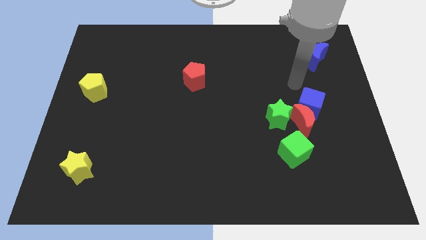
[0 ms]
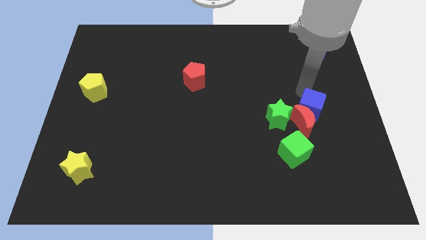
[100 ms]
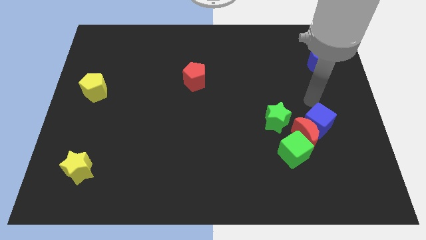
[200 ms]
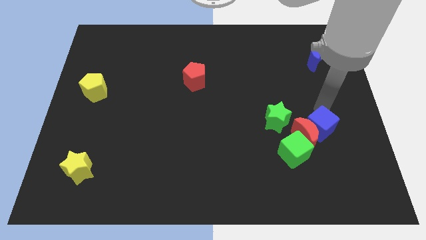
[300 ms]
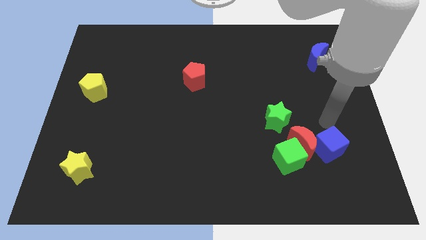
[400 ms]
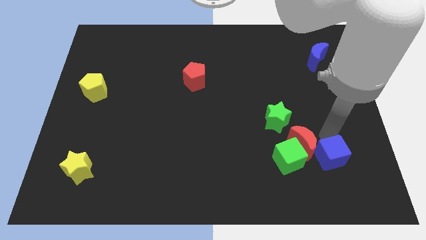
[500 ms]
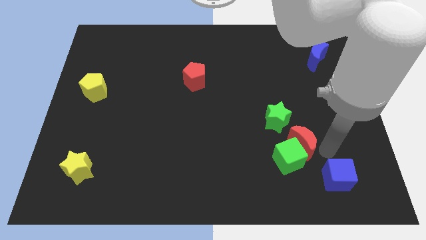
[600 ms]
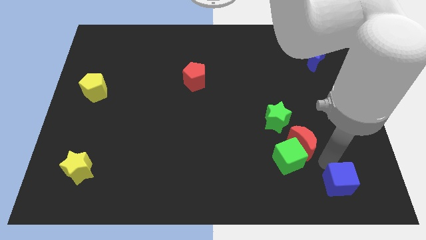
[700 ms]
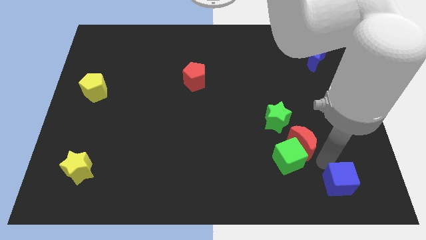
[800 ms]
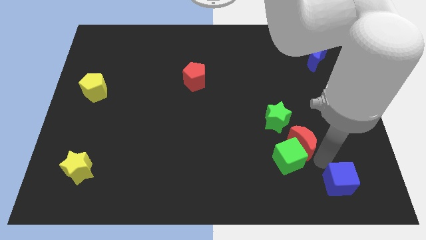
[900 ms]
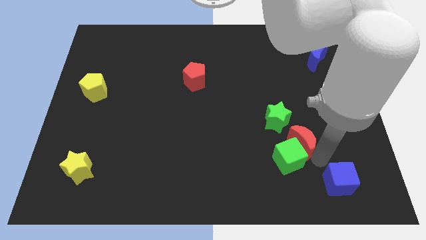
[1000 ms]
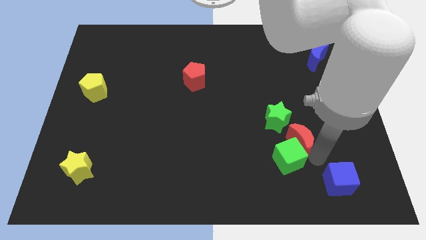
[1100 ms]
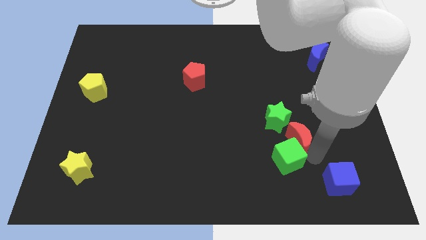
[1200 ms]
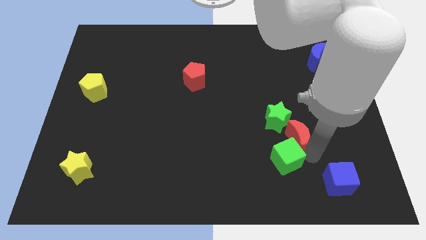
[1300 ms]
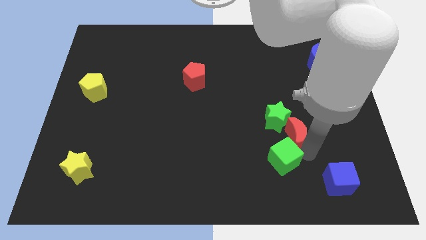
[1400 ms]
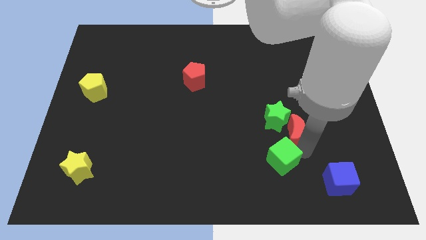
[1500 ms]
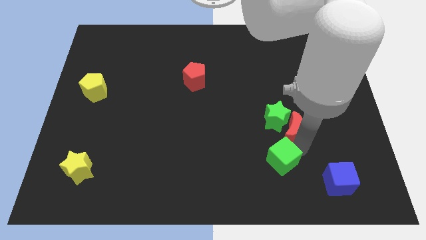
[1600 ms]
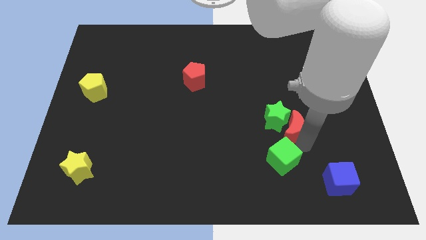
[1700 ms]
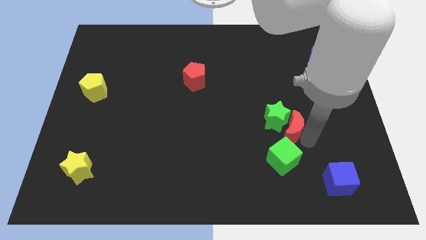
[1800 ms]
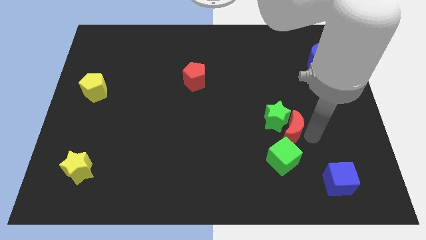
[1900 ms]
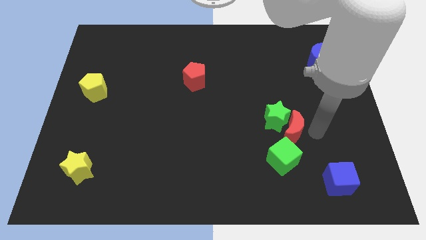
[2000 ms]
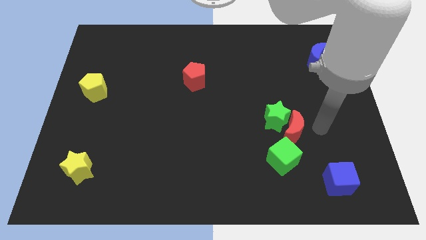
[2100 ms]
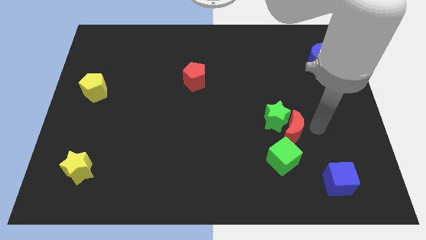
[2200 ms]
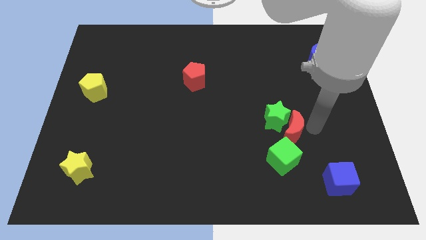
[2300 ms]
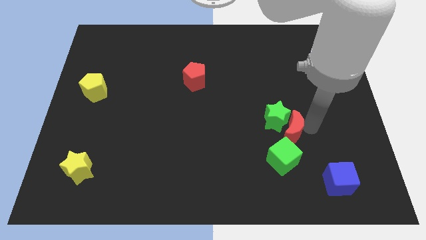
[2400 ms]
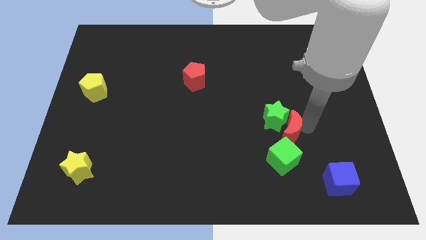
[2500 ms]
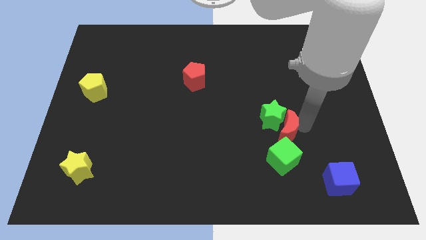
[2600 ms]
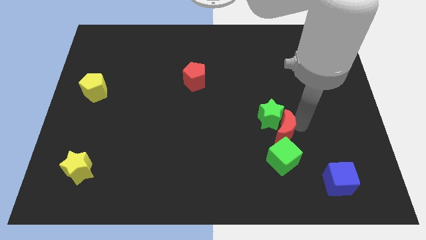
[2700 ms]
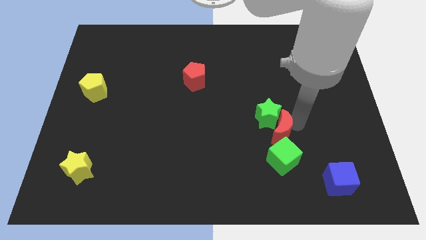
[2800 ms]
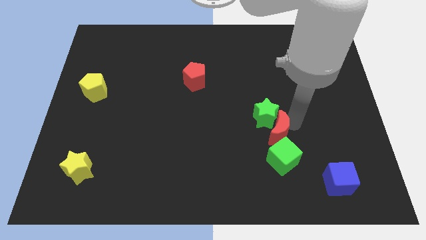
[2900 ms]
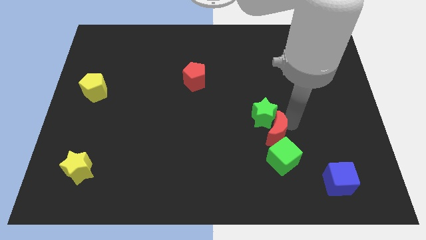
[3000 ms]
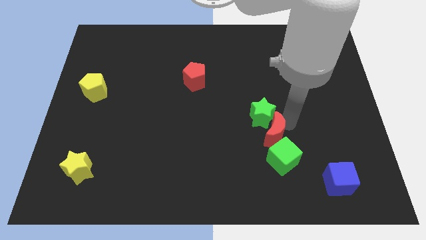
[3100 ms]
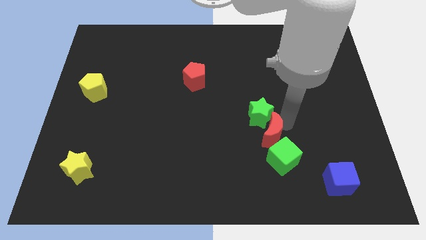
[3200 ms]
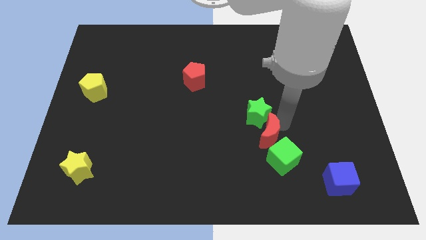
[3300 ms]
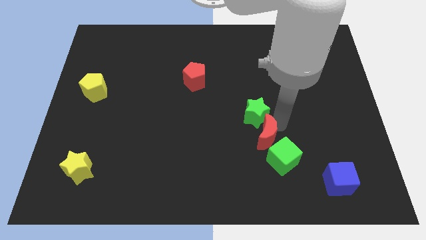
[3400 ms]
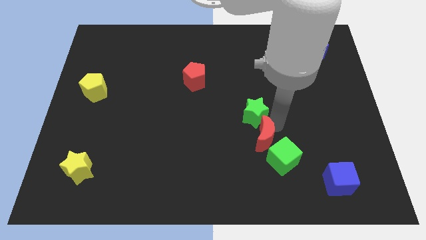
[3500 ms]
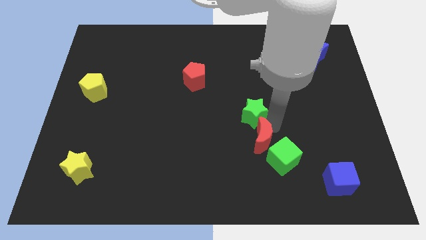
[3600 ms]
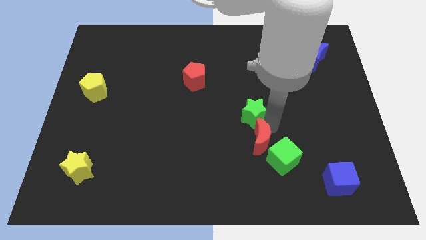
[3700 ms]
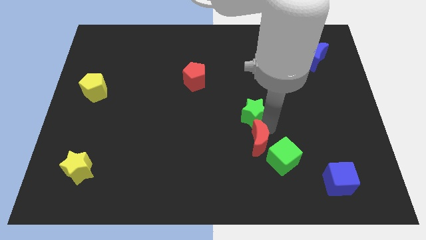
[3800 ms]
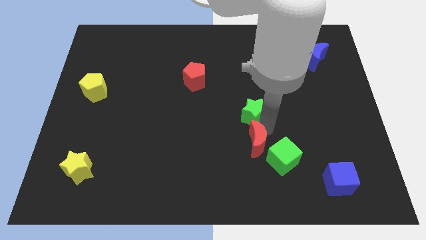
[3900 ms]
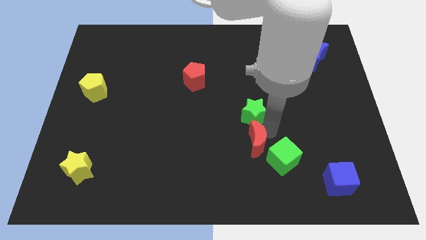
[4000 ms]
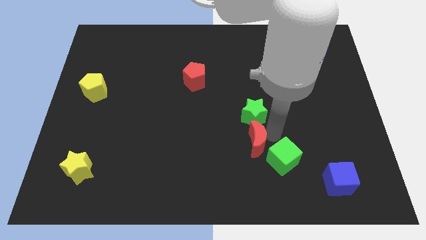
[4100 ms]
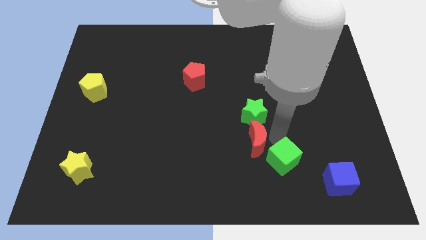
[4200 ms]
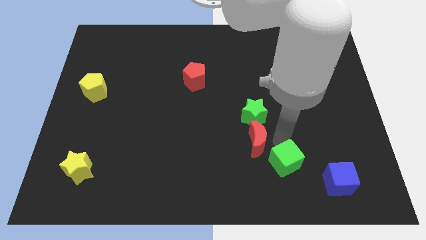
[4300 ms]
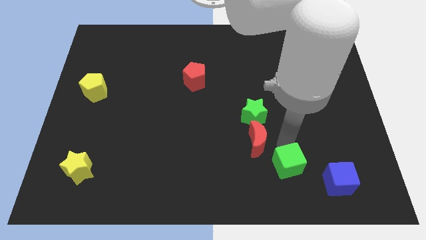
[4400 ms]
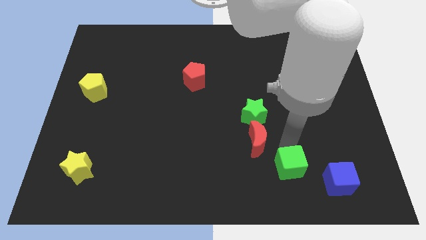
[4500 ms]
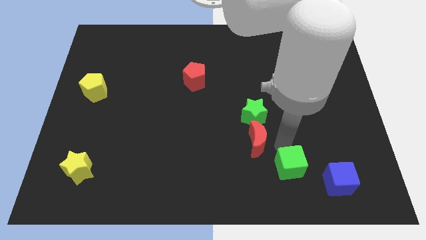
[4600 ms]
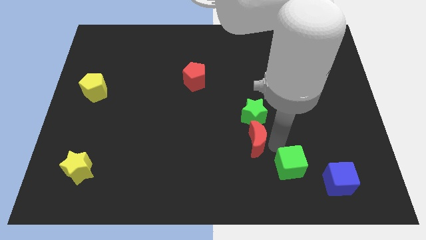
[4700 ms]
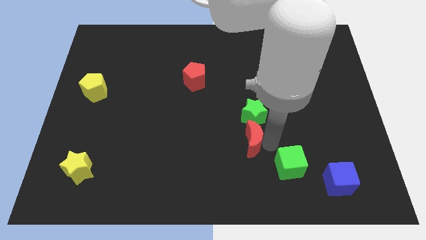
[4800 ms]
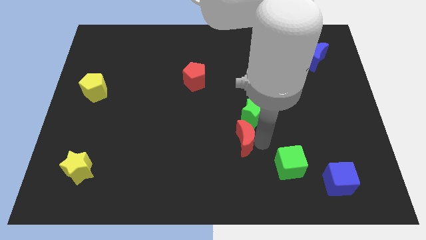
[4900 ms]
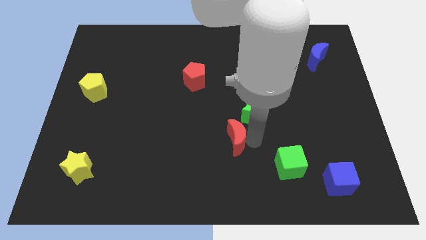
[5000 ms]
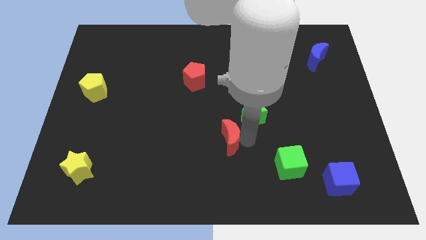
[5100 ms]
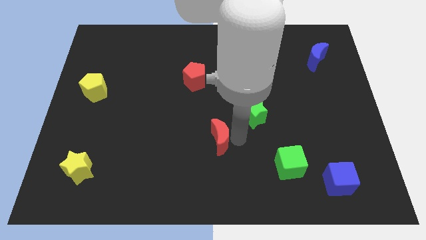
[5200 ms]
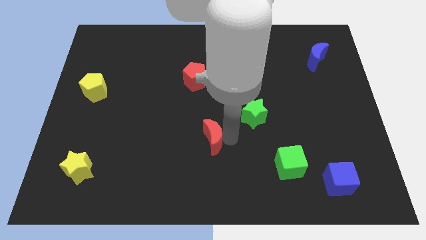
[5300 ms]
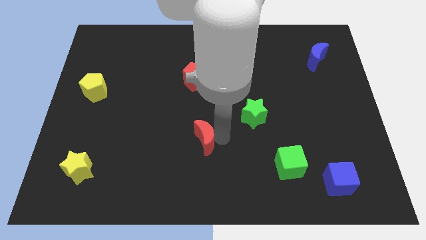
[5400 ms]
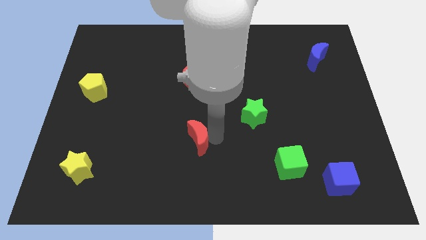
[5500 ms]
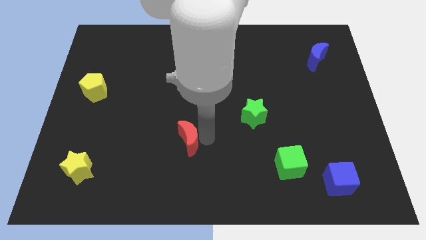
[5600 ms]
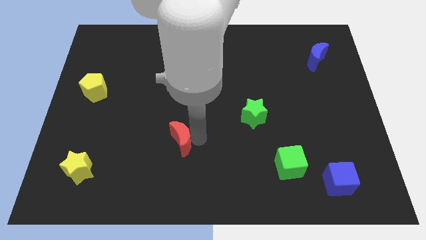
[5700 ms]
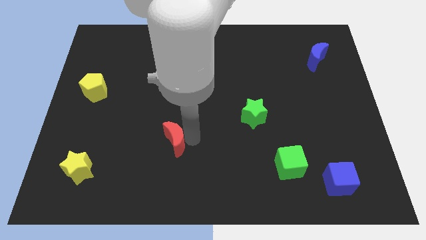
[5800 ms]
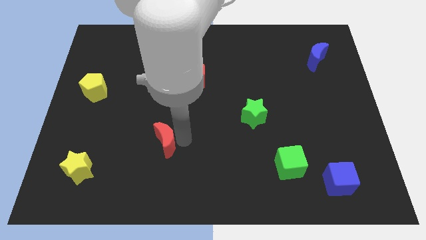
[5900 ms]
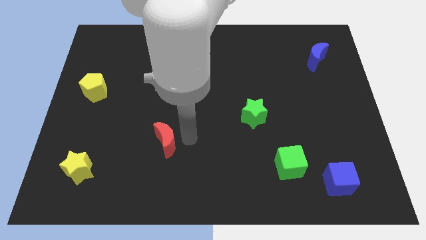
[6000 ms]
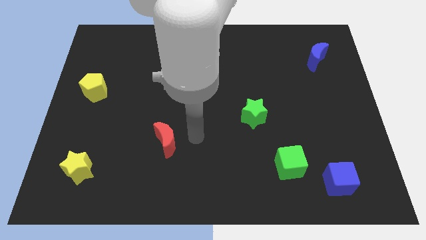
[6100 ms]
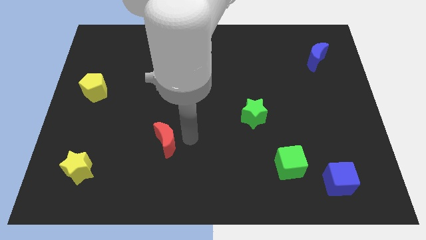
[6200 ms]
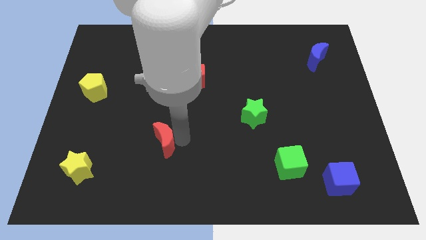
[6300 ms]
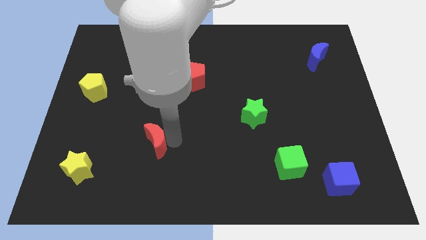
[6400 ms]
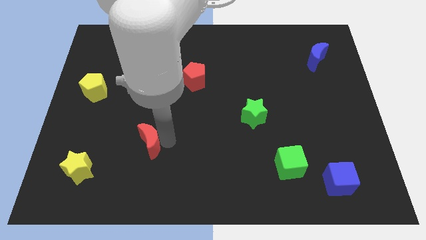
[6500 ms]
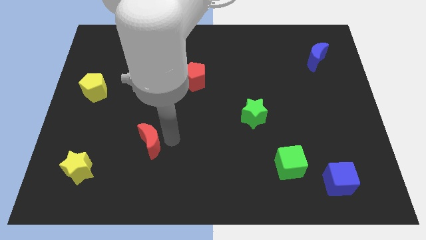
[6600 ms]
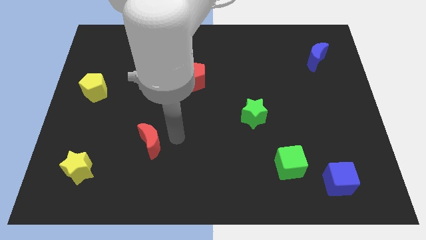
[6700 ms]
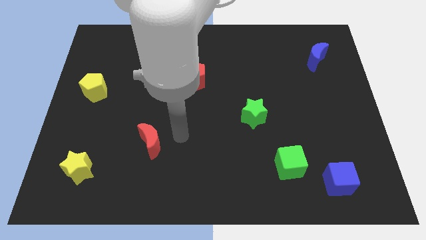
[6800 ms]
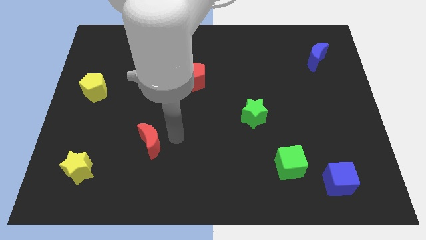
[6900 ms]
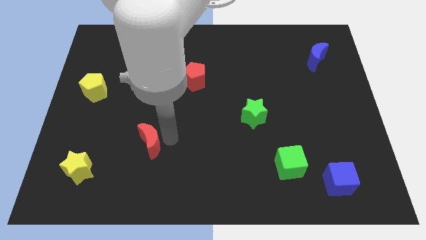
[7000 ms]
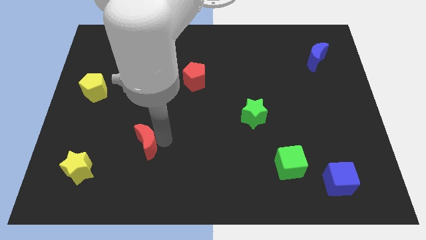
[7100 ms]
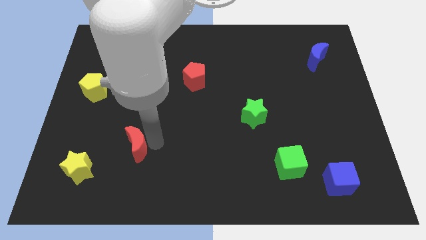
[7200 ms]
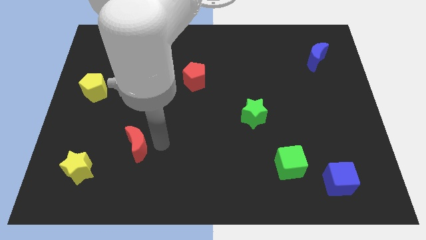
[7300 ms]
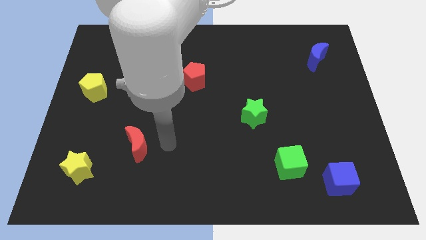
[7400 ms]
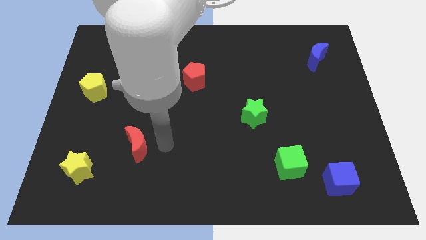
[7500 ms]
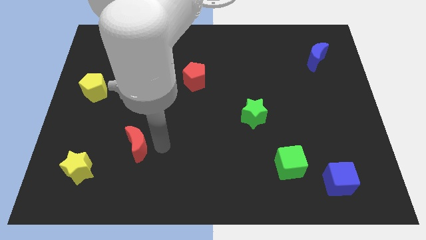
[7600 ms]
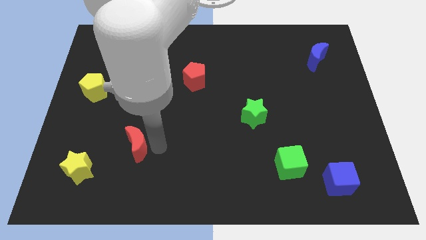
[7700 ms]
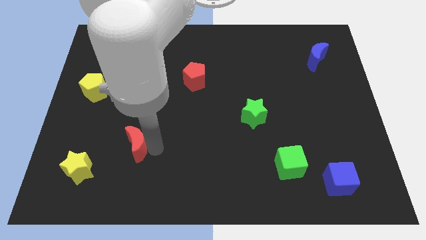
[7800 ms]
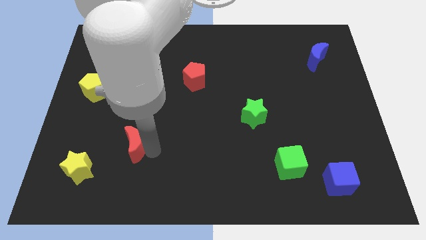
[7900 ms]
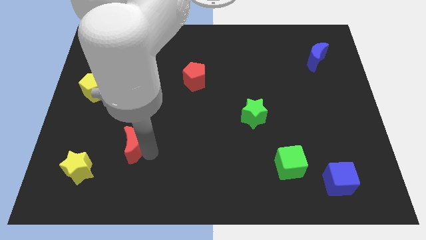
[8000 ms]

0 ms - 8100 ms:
move the red moon diagonally up and to the right of the yellow star
